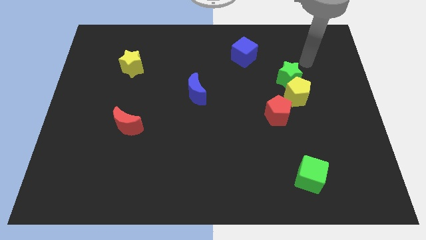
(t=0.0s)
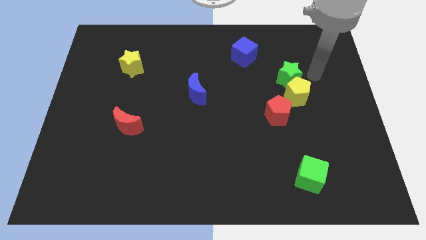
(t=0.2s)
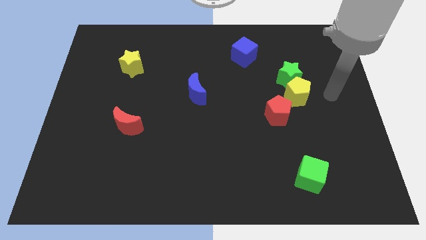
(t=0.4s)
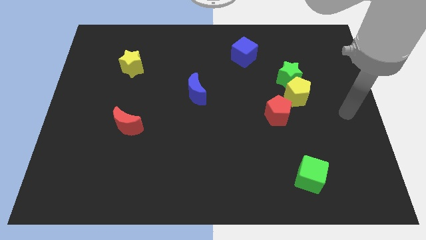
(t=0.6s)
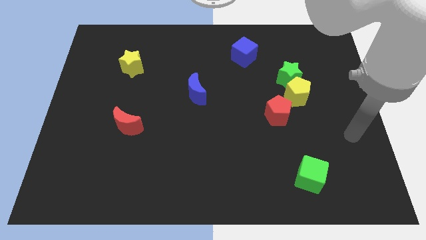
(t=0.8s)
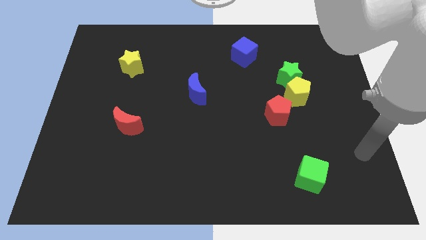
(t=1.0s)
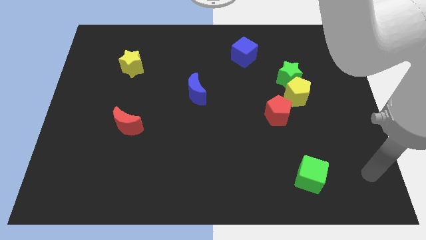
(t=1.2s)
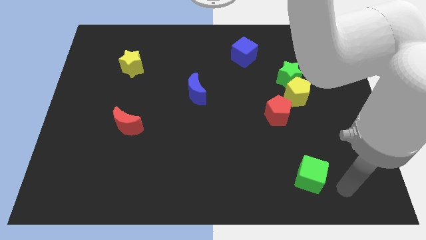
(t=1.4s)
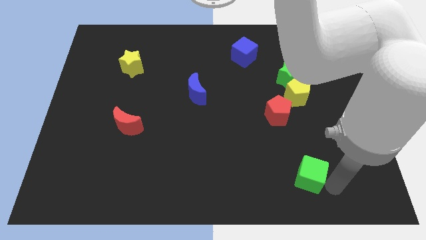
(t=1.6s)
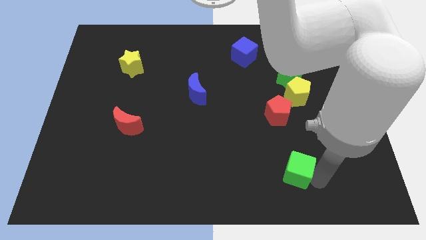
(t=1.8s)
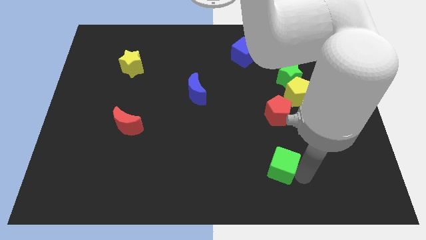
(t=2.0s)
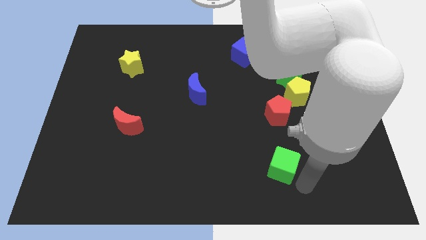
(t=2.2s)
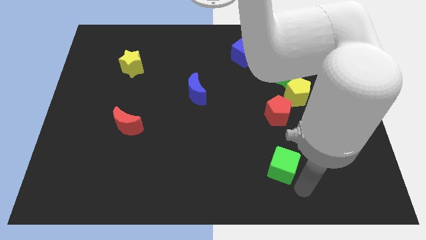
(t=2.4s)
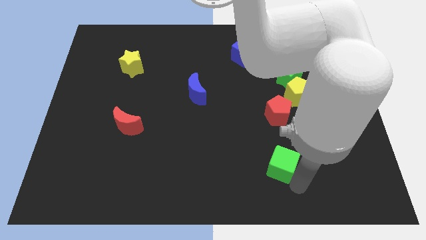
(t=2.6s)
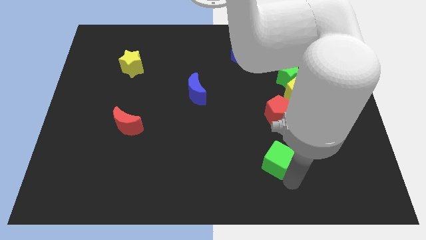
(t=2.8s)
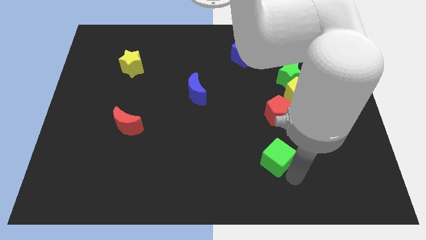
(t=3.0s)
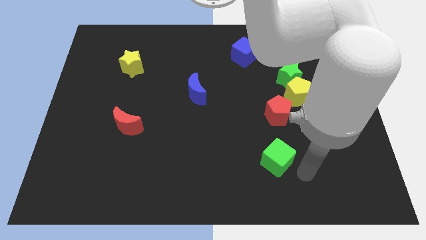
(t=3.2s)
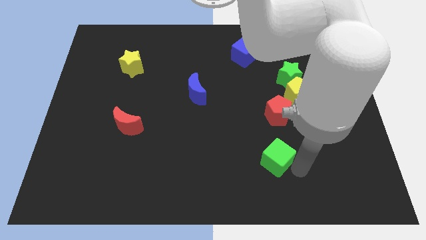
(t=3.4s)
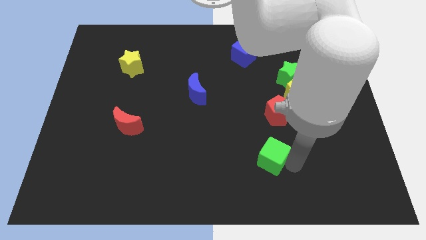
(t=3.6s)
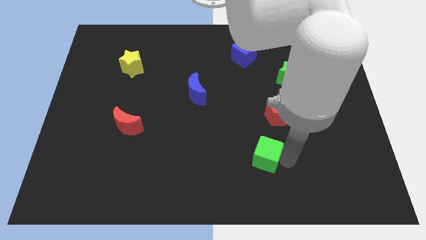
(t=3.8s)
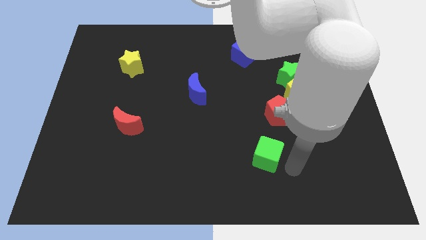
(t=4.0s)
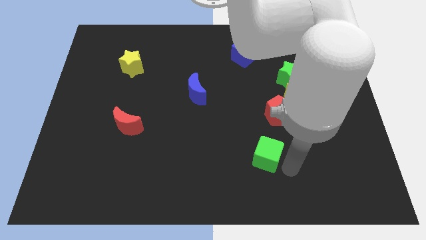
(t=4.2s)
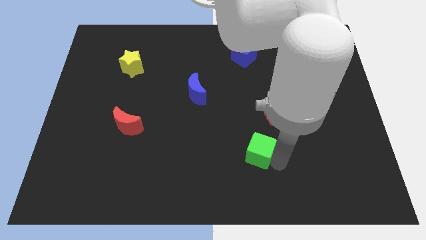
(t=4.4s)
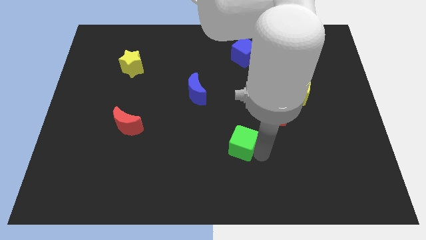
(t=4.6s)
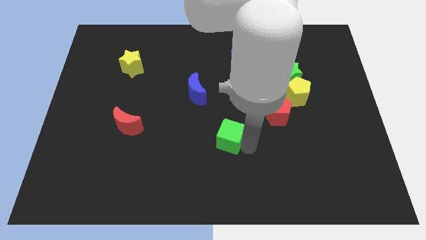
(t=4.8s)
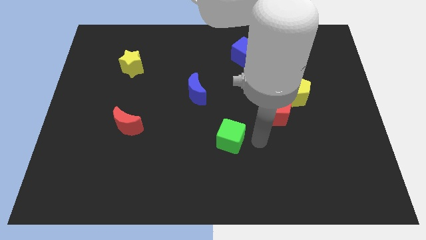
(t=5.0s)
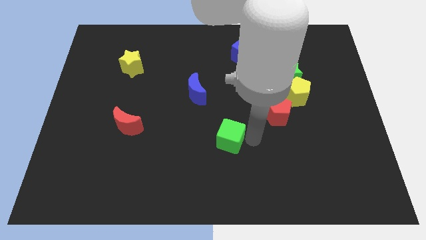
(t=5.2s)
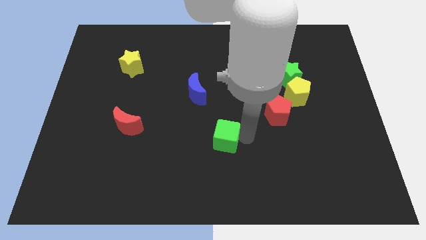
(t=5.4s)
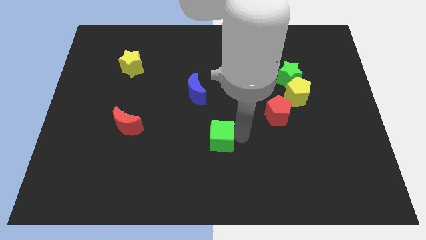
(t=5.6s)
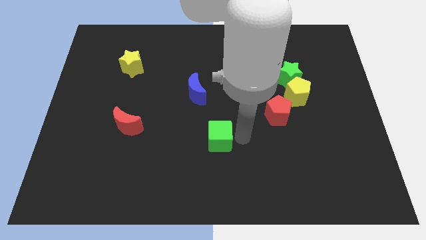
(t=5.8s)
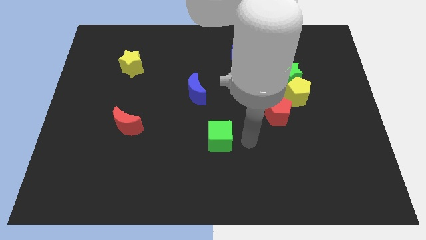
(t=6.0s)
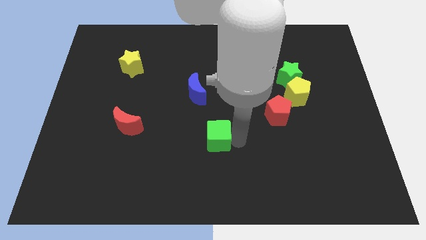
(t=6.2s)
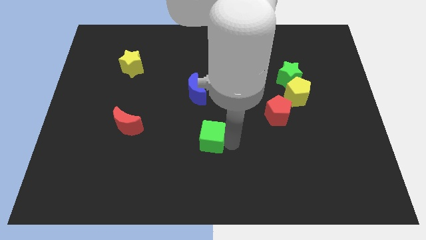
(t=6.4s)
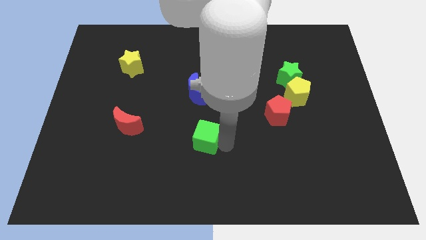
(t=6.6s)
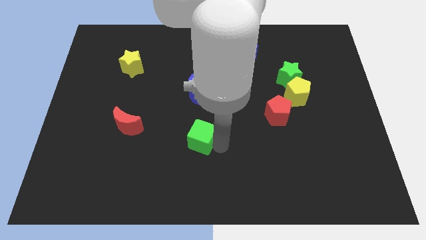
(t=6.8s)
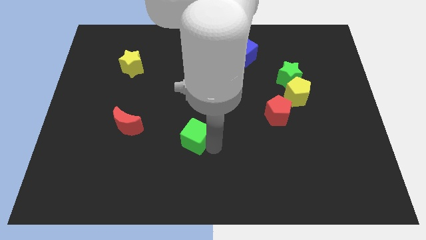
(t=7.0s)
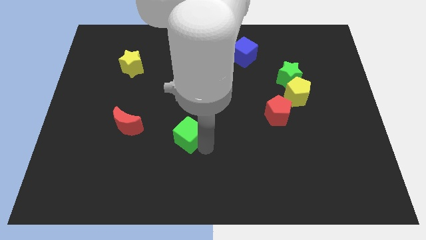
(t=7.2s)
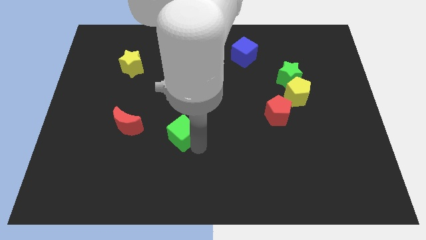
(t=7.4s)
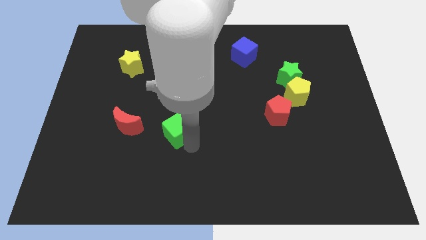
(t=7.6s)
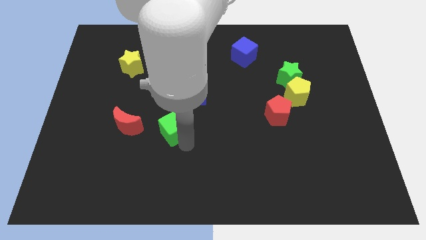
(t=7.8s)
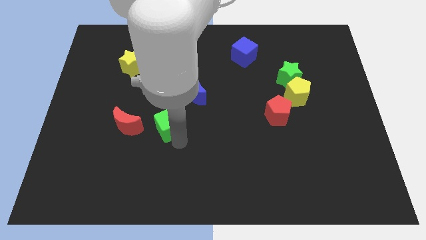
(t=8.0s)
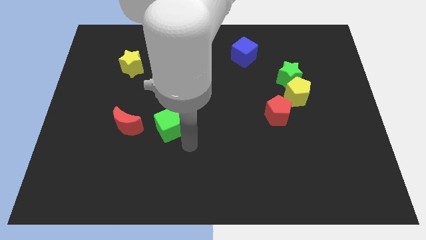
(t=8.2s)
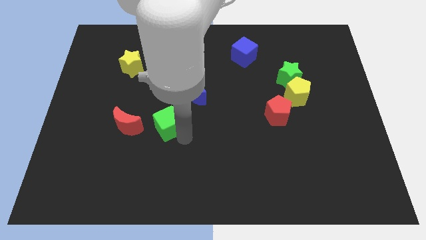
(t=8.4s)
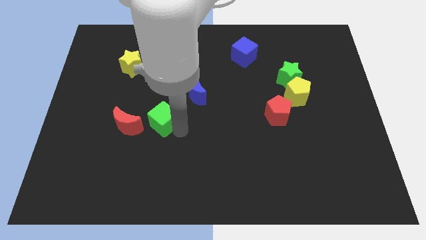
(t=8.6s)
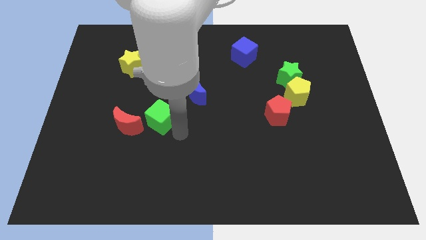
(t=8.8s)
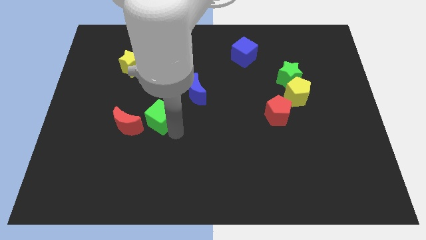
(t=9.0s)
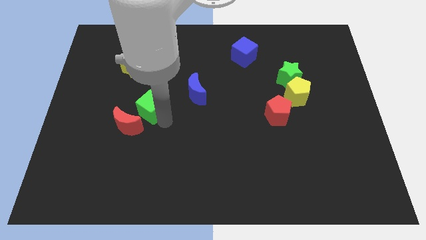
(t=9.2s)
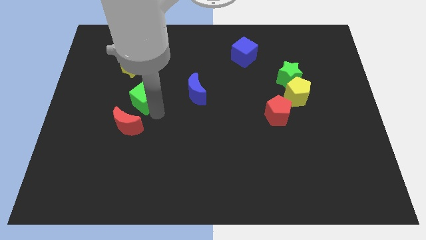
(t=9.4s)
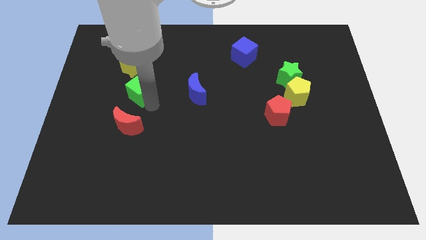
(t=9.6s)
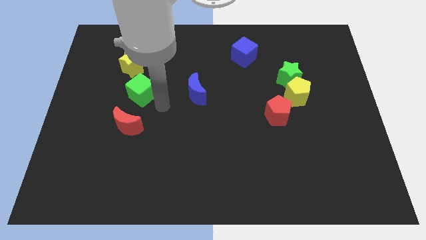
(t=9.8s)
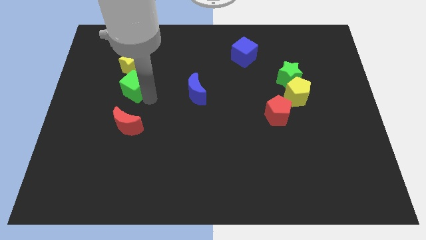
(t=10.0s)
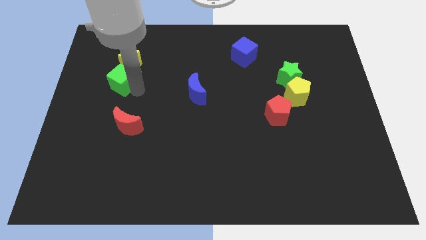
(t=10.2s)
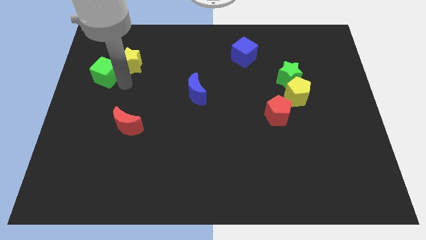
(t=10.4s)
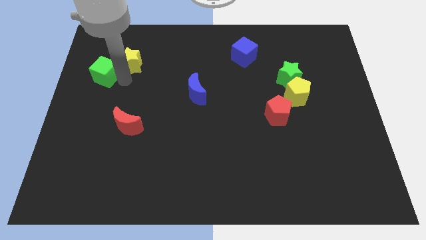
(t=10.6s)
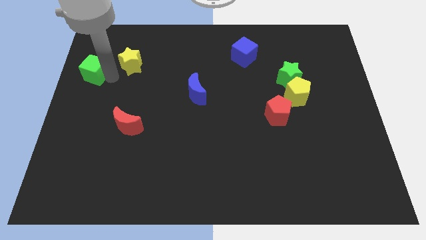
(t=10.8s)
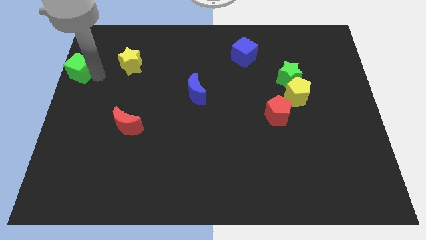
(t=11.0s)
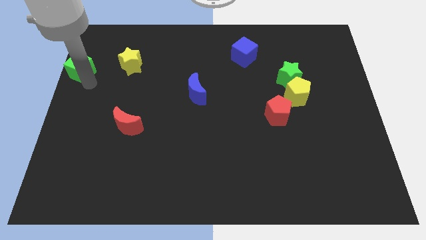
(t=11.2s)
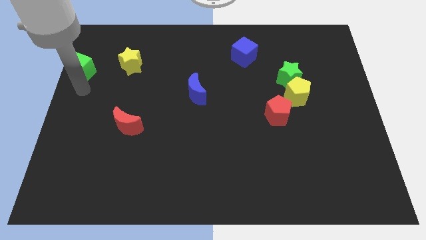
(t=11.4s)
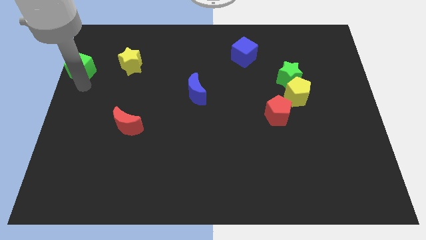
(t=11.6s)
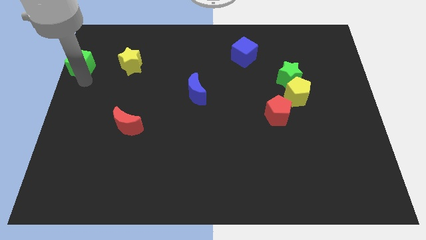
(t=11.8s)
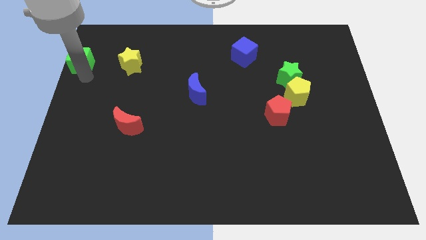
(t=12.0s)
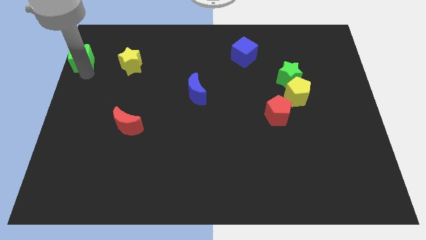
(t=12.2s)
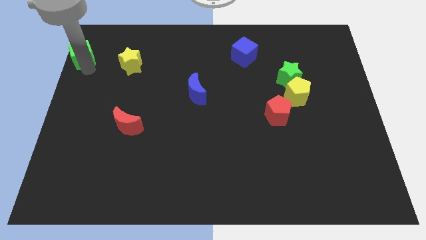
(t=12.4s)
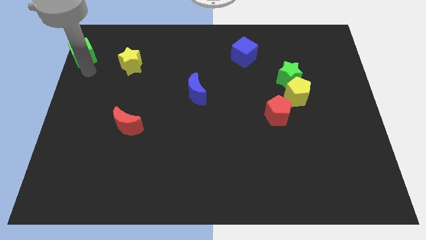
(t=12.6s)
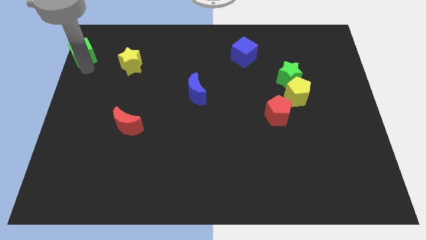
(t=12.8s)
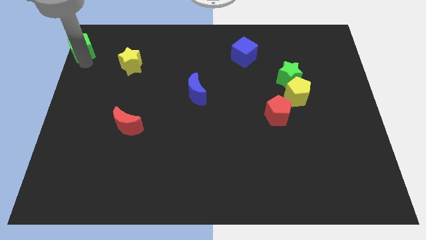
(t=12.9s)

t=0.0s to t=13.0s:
move the green cube to the top left of the board
